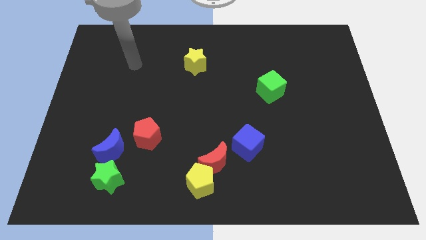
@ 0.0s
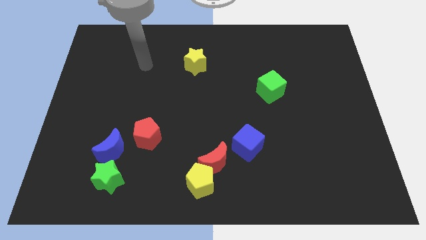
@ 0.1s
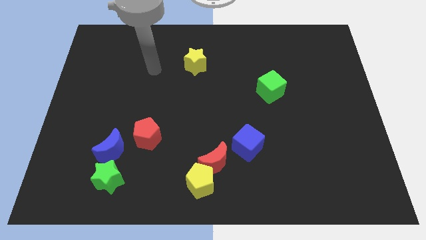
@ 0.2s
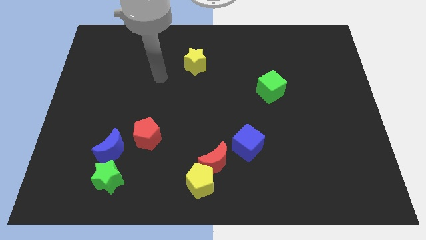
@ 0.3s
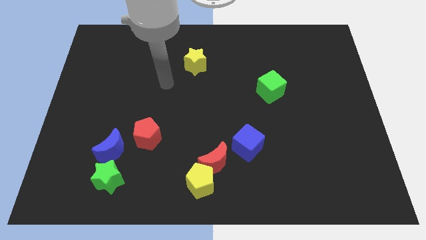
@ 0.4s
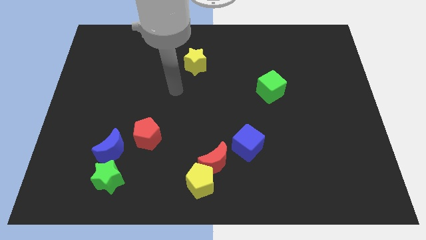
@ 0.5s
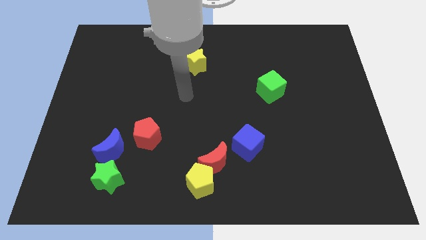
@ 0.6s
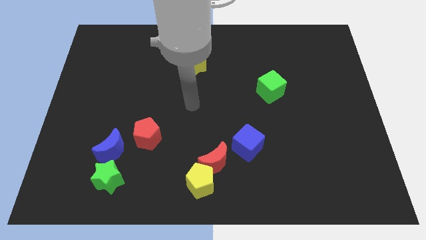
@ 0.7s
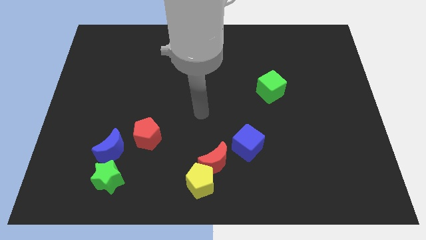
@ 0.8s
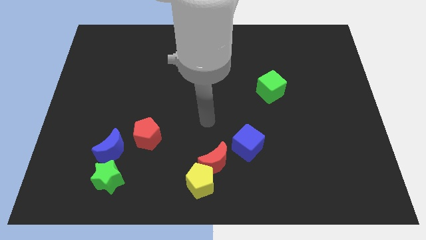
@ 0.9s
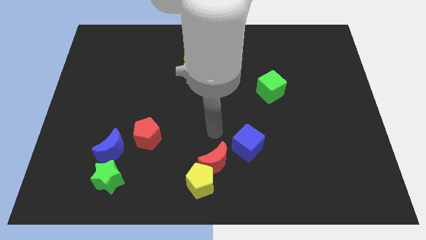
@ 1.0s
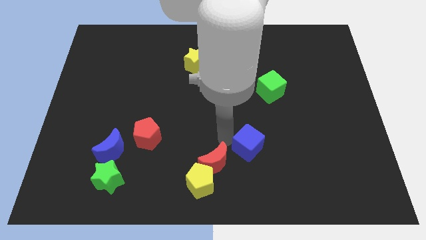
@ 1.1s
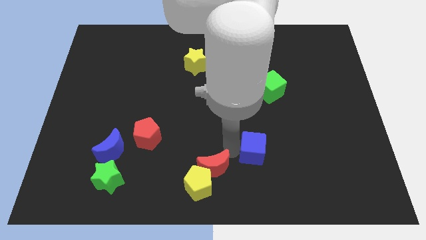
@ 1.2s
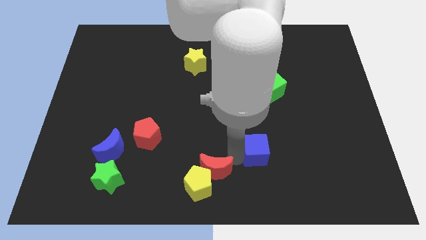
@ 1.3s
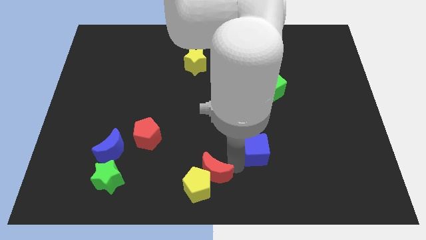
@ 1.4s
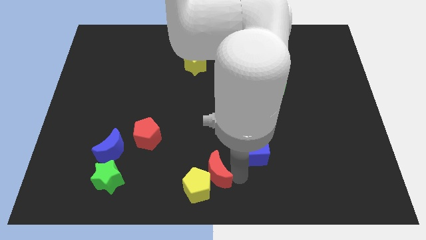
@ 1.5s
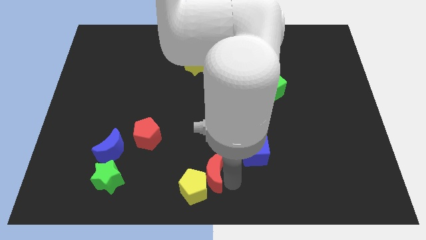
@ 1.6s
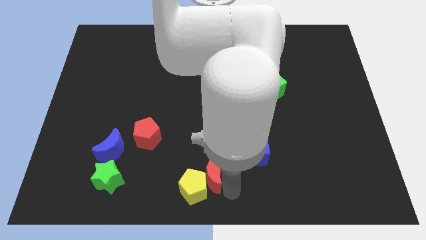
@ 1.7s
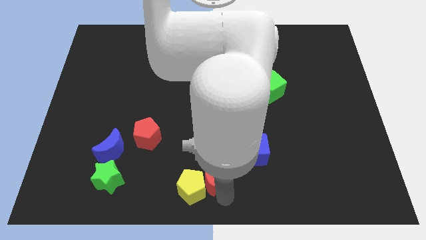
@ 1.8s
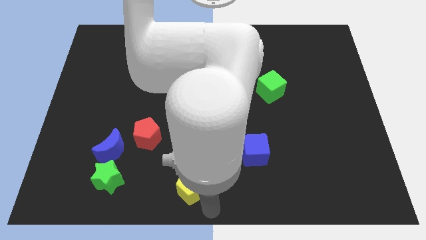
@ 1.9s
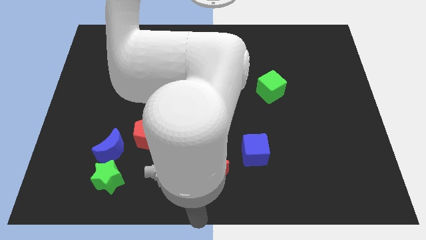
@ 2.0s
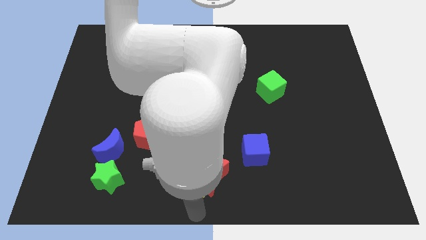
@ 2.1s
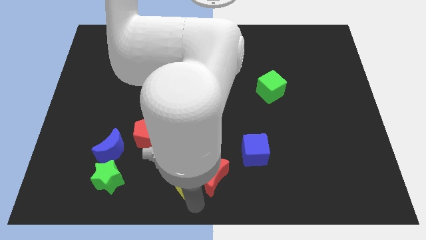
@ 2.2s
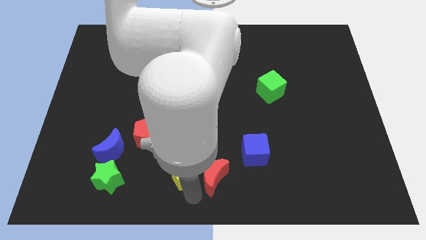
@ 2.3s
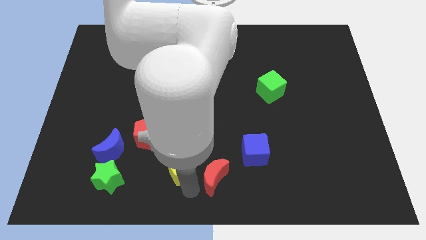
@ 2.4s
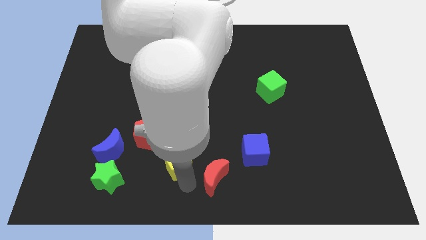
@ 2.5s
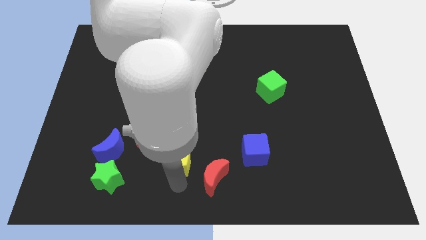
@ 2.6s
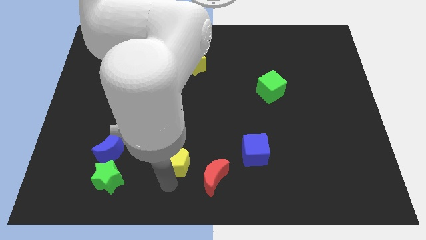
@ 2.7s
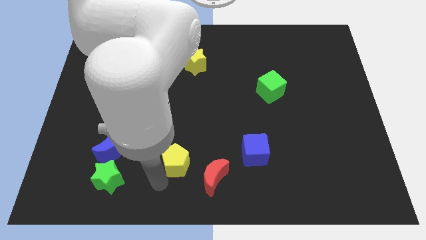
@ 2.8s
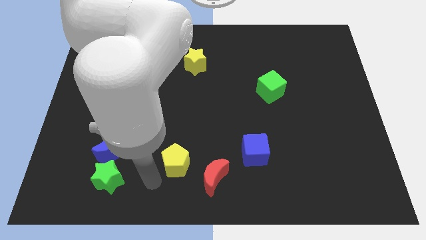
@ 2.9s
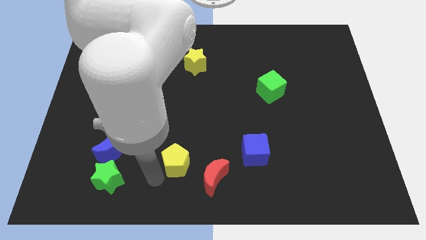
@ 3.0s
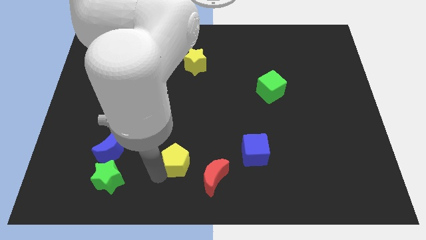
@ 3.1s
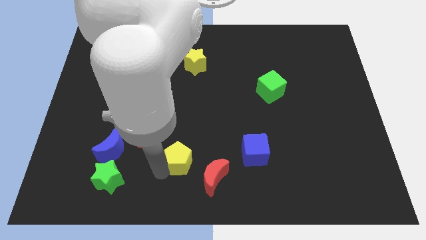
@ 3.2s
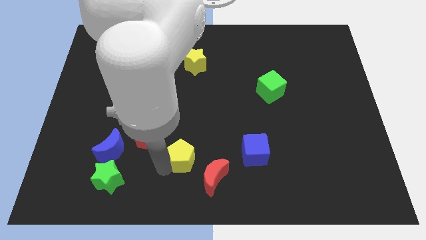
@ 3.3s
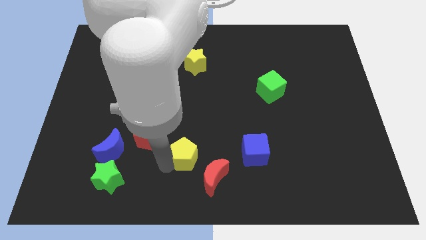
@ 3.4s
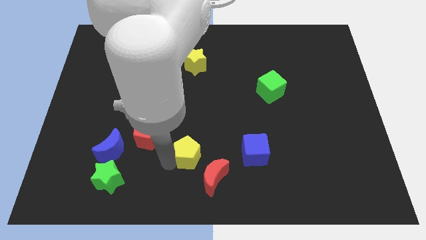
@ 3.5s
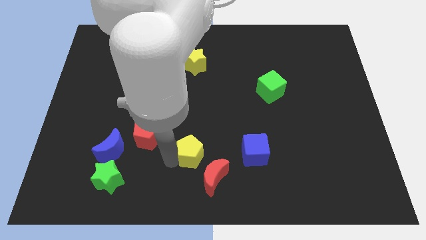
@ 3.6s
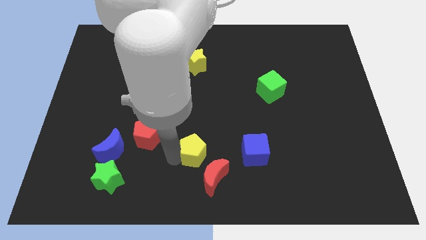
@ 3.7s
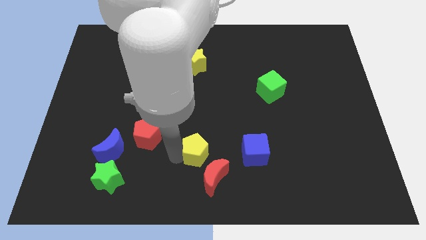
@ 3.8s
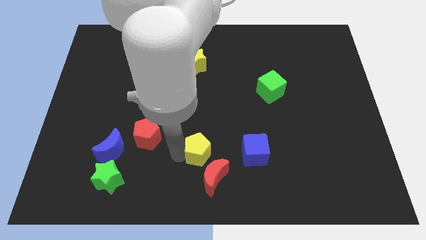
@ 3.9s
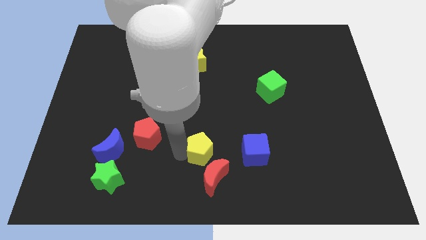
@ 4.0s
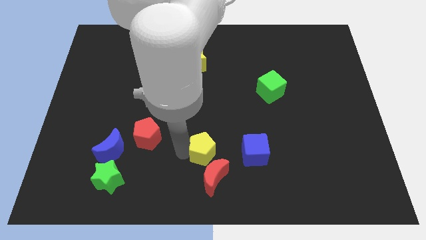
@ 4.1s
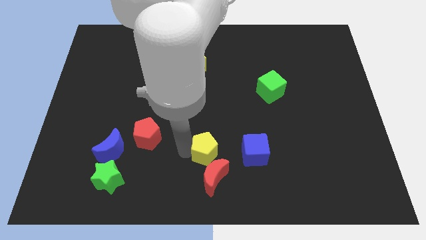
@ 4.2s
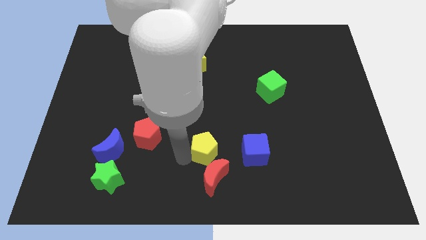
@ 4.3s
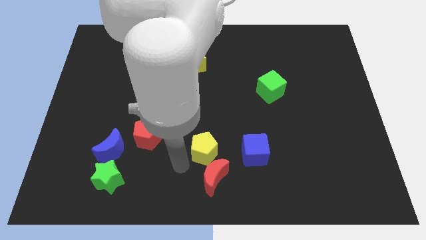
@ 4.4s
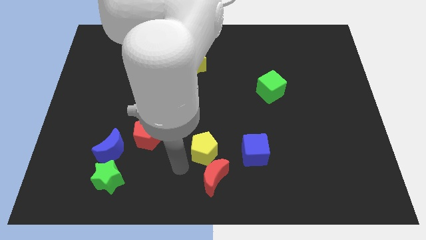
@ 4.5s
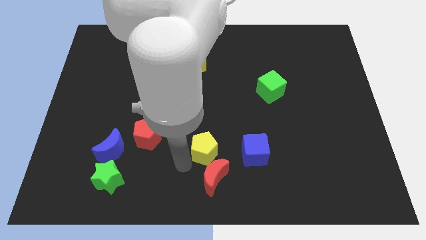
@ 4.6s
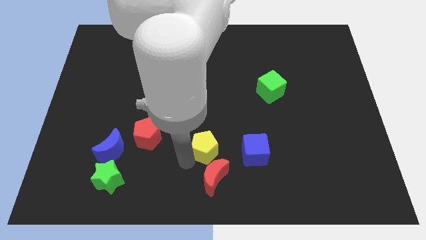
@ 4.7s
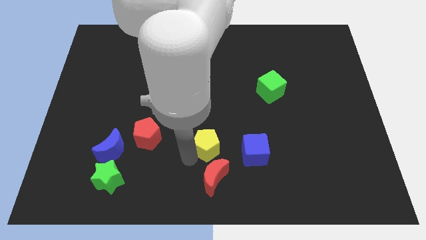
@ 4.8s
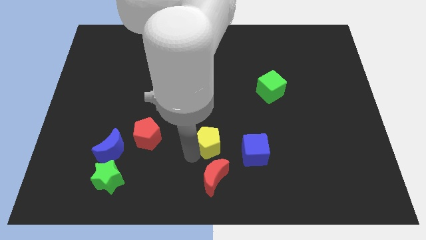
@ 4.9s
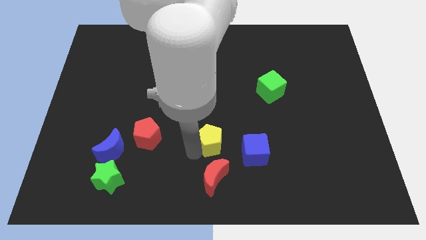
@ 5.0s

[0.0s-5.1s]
move the yellow pentagon a bit upwards and then to the right

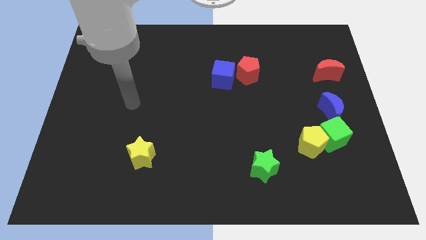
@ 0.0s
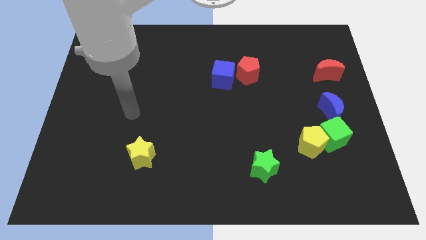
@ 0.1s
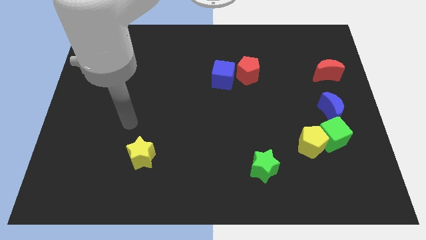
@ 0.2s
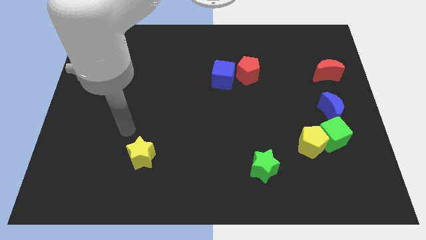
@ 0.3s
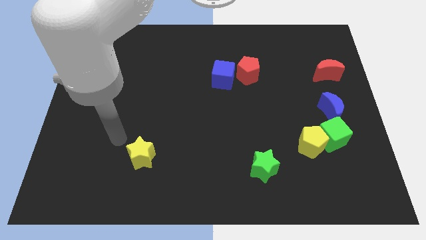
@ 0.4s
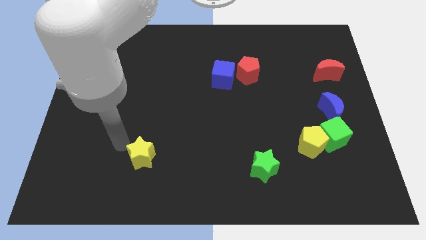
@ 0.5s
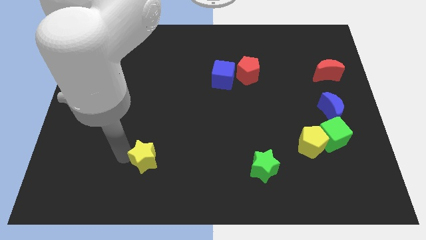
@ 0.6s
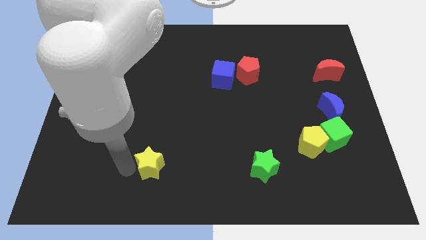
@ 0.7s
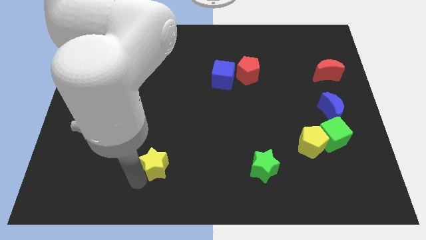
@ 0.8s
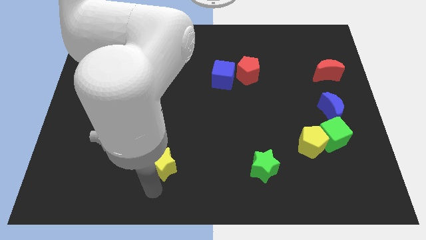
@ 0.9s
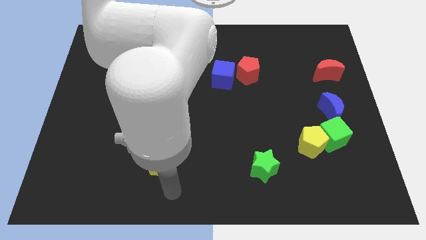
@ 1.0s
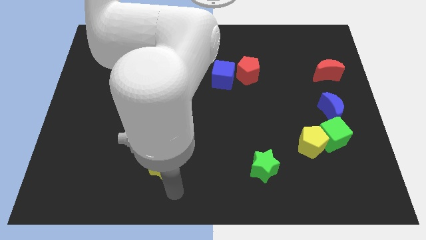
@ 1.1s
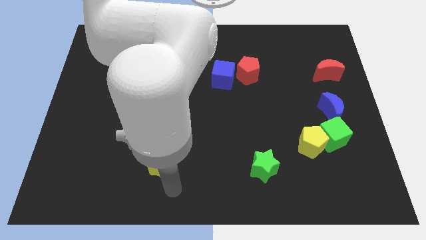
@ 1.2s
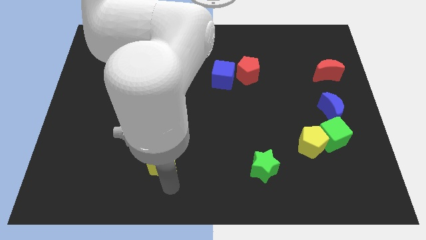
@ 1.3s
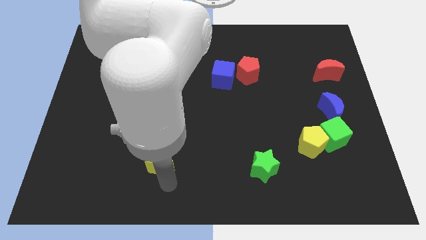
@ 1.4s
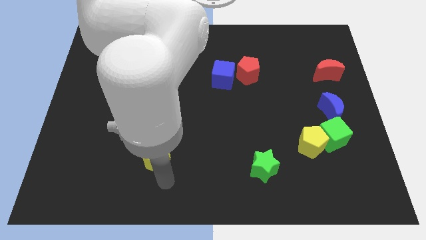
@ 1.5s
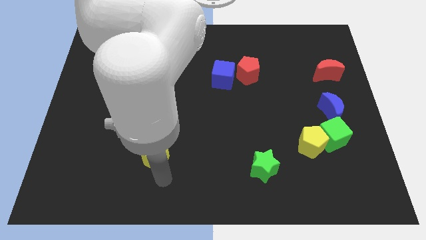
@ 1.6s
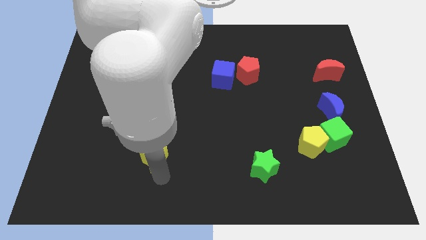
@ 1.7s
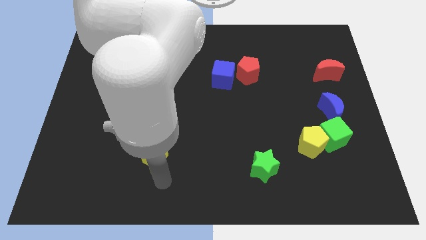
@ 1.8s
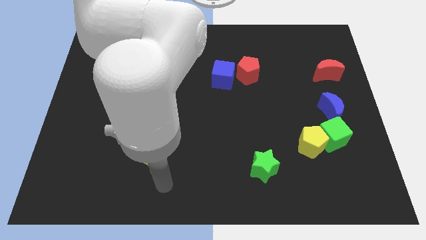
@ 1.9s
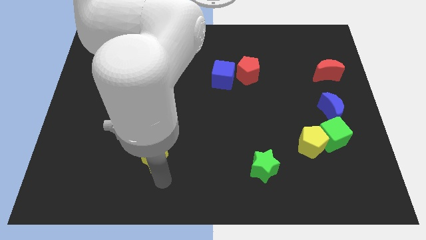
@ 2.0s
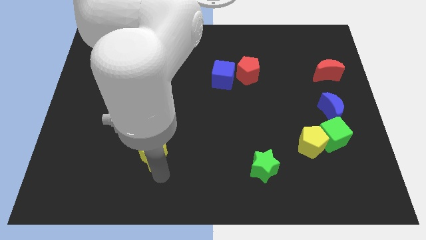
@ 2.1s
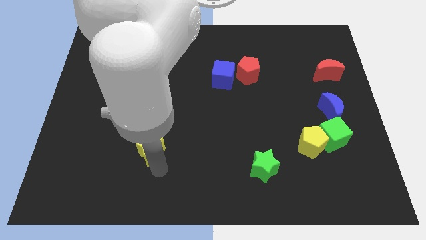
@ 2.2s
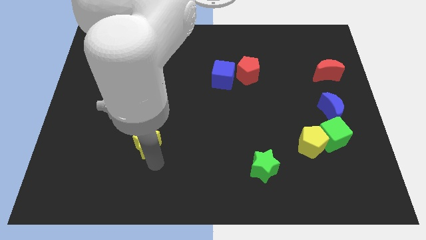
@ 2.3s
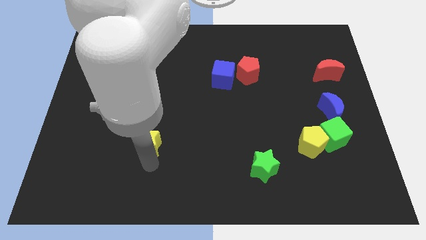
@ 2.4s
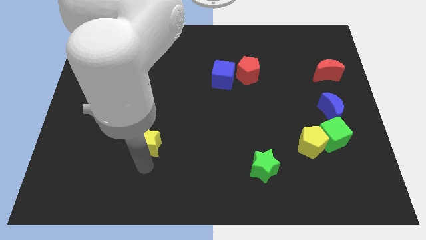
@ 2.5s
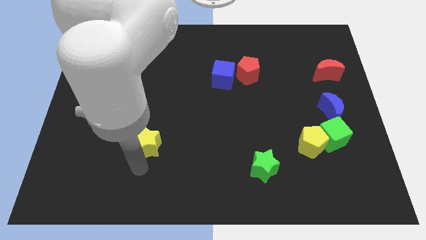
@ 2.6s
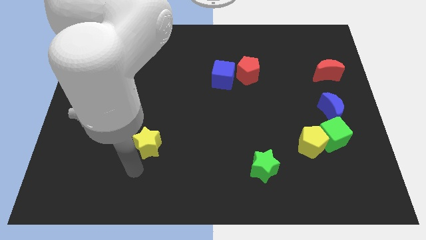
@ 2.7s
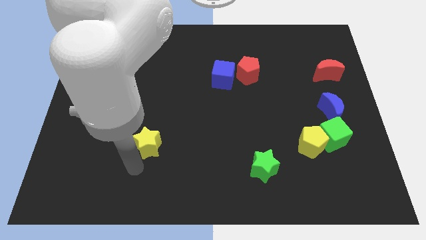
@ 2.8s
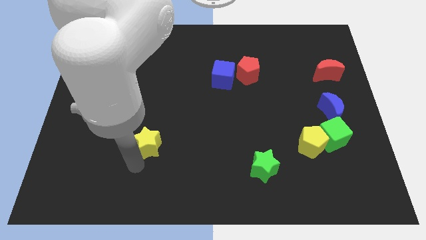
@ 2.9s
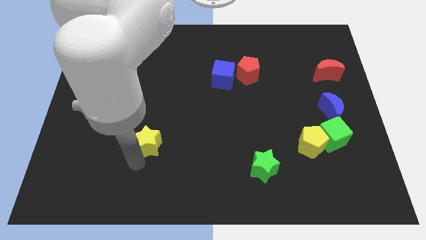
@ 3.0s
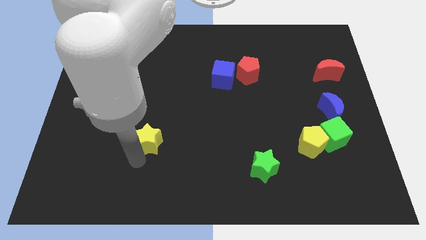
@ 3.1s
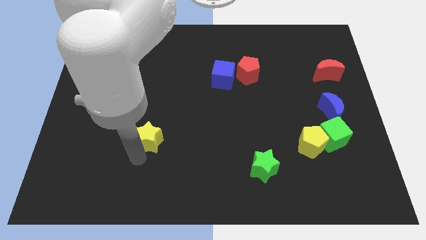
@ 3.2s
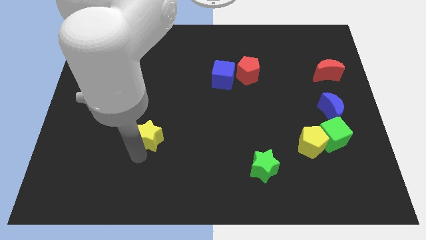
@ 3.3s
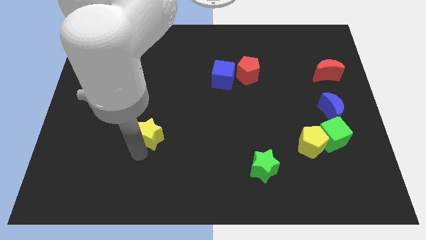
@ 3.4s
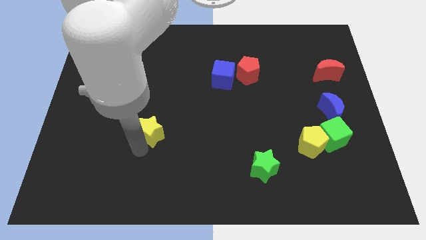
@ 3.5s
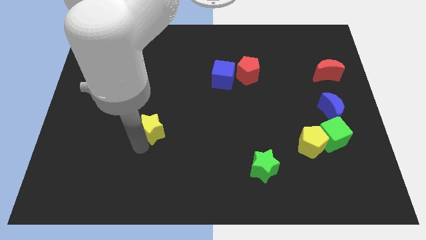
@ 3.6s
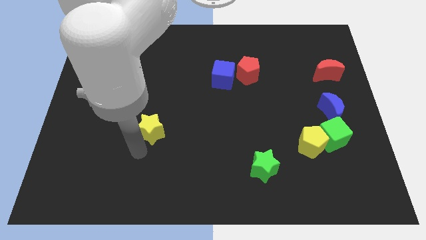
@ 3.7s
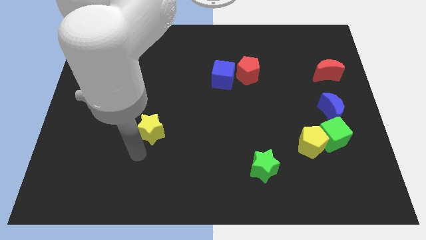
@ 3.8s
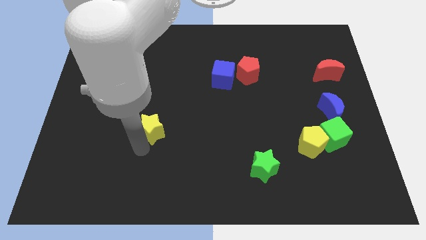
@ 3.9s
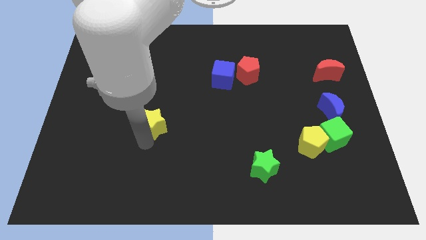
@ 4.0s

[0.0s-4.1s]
slide the yellow star up a little bit
